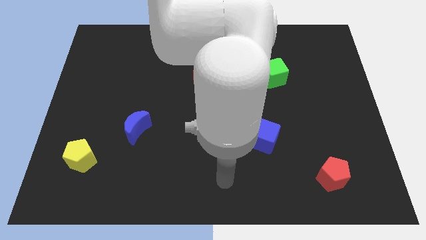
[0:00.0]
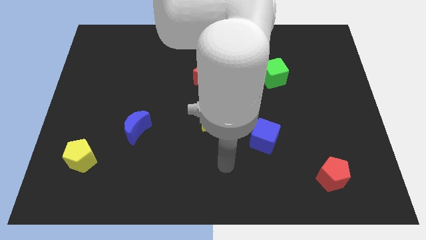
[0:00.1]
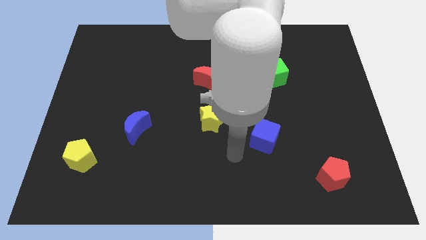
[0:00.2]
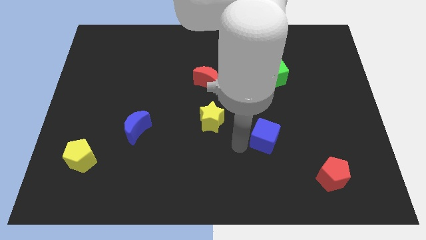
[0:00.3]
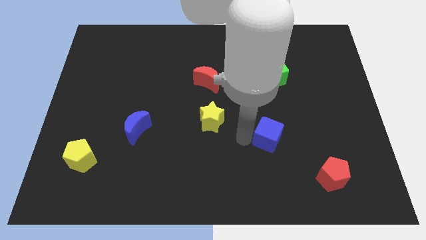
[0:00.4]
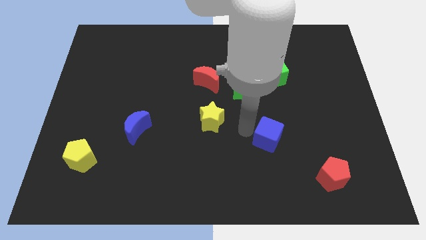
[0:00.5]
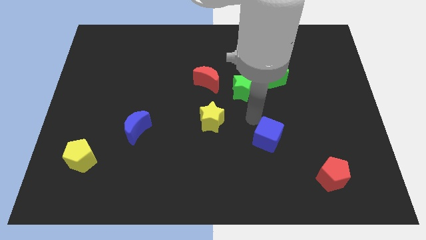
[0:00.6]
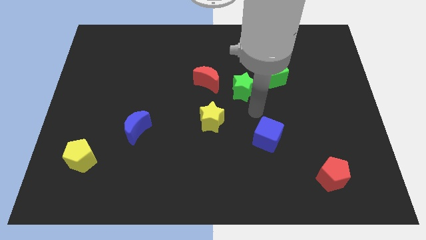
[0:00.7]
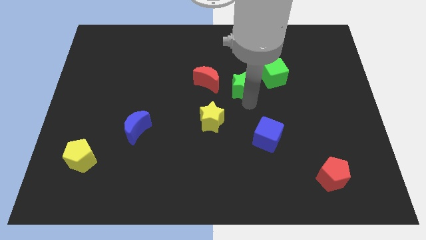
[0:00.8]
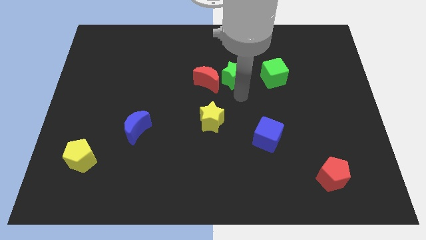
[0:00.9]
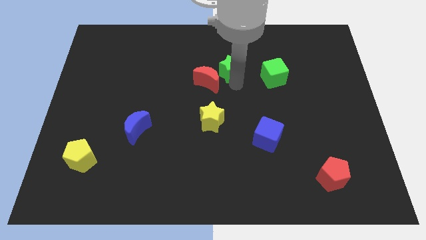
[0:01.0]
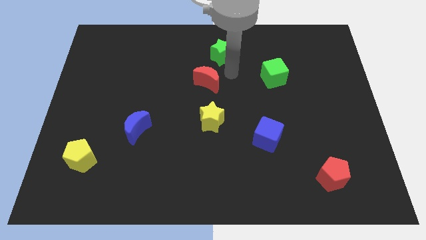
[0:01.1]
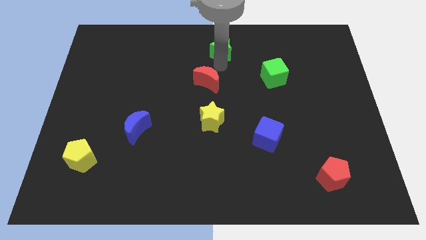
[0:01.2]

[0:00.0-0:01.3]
move the red moon away from the green star

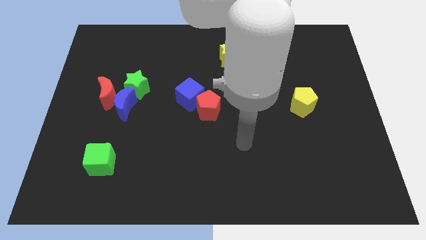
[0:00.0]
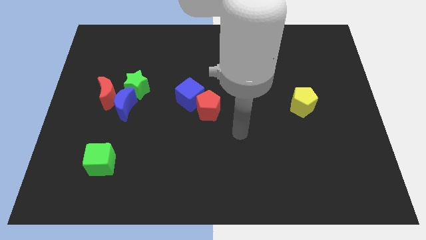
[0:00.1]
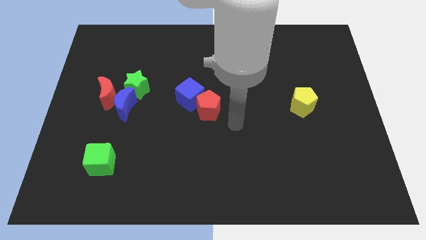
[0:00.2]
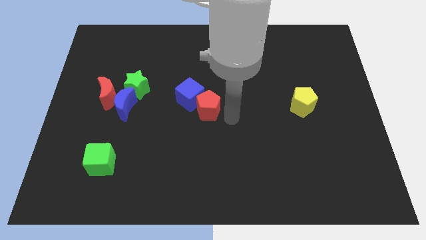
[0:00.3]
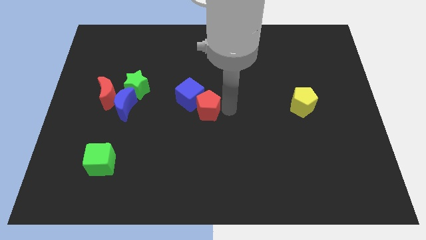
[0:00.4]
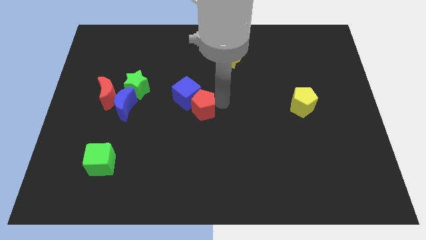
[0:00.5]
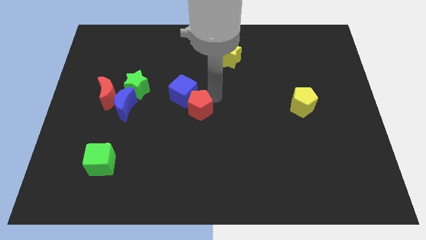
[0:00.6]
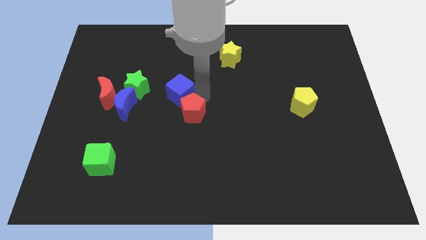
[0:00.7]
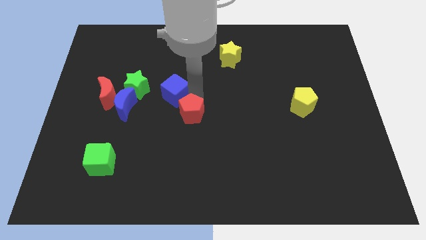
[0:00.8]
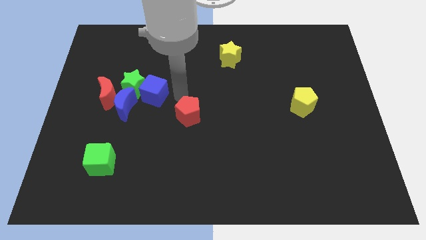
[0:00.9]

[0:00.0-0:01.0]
pull the red pentagon apart from the blue cube

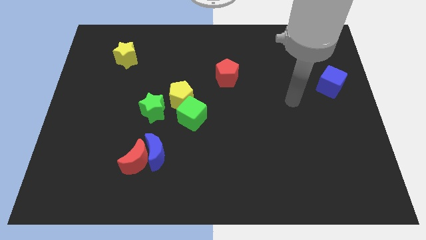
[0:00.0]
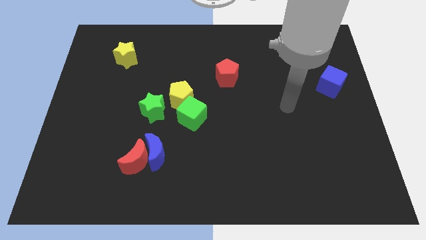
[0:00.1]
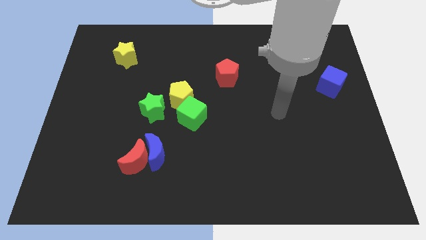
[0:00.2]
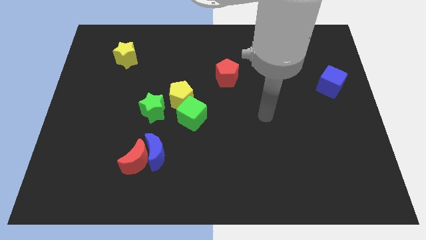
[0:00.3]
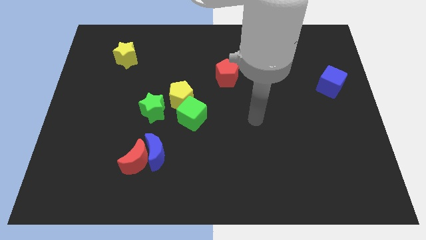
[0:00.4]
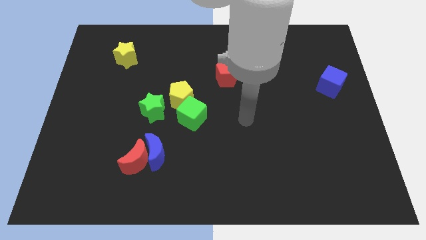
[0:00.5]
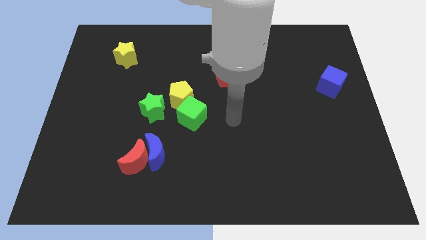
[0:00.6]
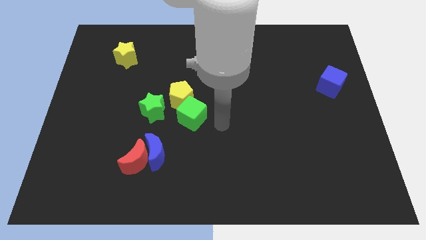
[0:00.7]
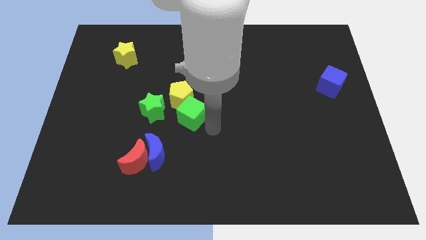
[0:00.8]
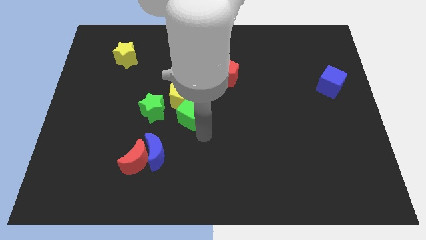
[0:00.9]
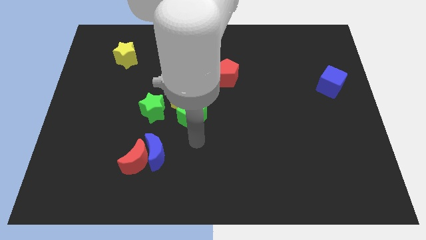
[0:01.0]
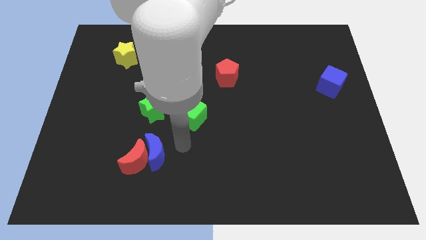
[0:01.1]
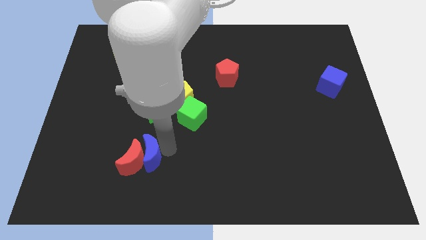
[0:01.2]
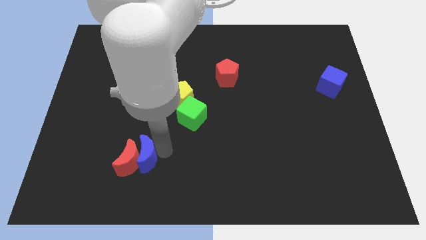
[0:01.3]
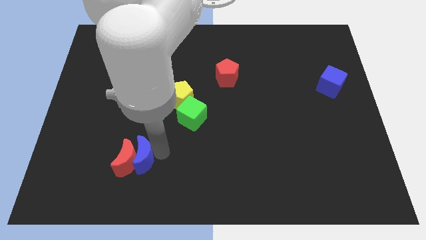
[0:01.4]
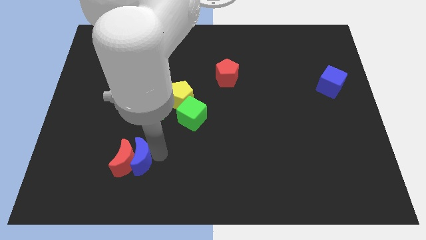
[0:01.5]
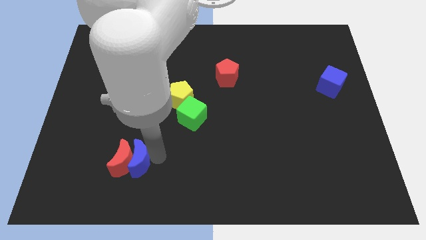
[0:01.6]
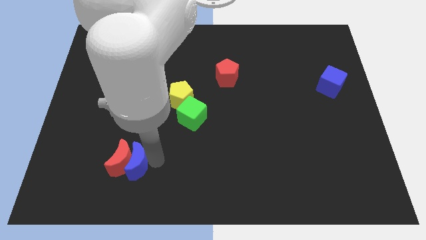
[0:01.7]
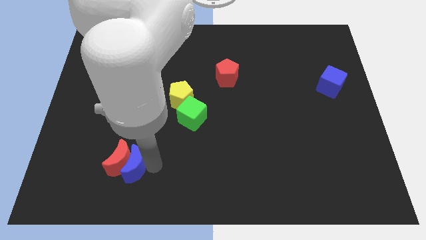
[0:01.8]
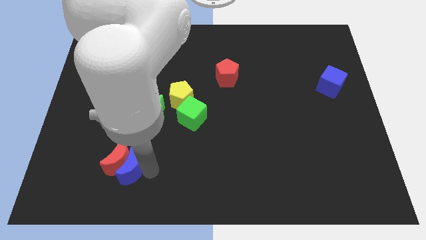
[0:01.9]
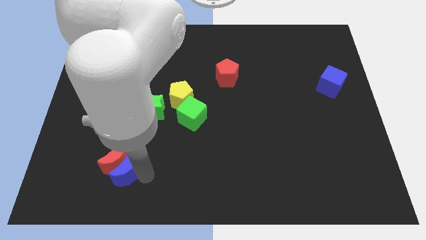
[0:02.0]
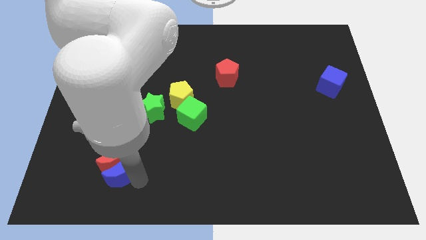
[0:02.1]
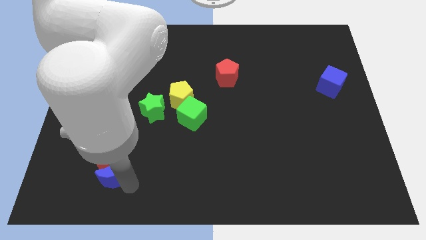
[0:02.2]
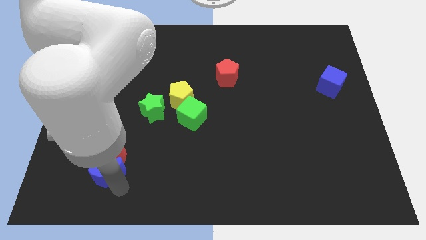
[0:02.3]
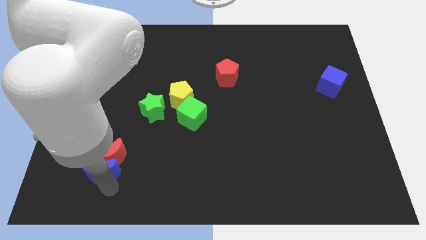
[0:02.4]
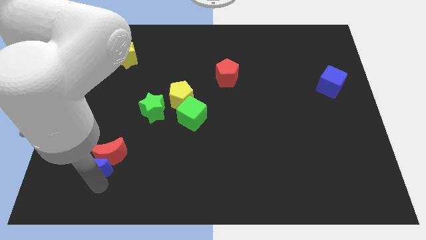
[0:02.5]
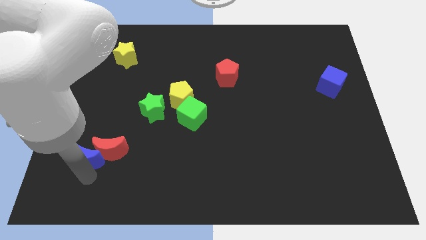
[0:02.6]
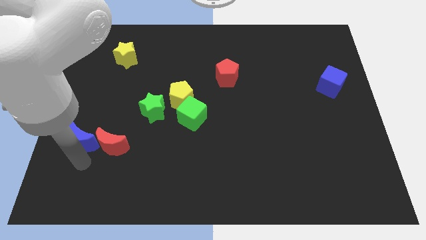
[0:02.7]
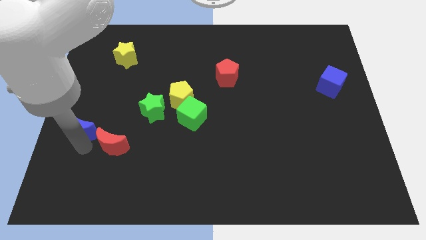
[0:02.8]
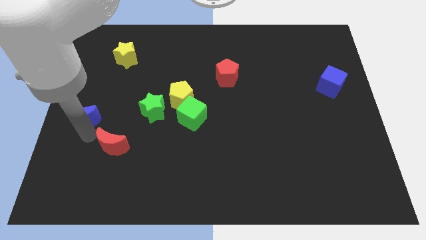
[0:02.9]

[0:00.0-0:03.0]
separate the red moon from the blue moon

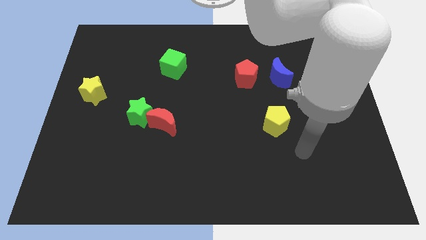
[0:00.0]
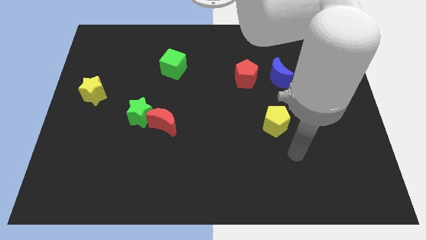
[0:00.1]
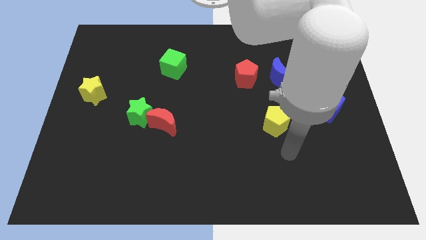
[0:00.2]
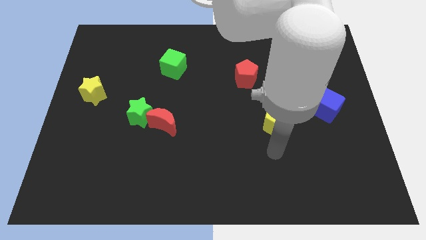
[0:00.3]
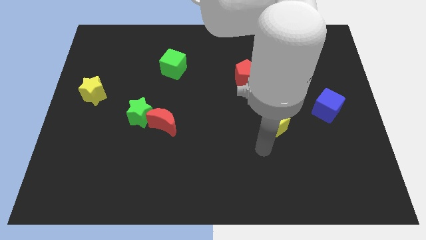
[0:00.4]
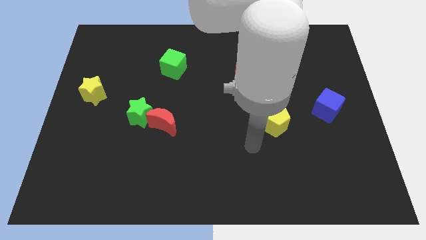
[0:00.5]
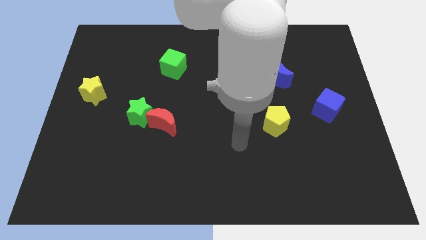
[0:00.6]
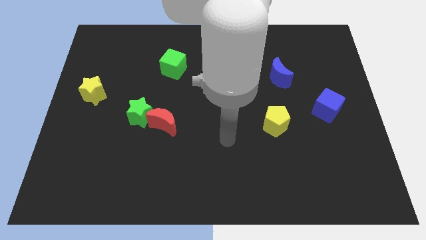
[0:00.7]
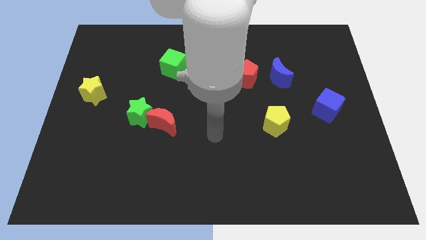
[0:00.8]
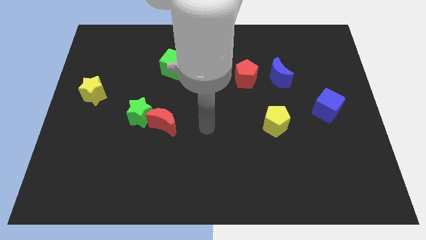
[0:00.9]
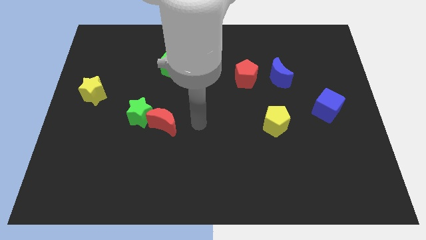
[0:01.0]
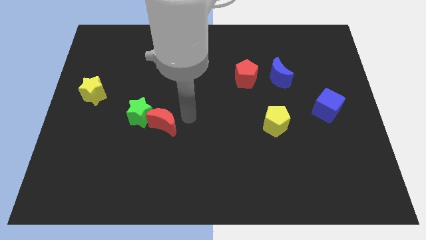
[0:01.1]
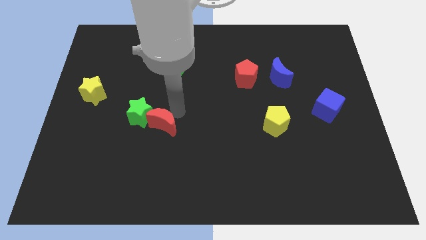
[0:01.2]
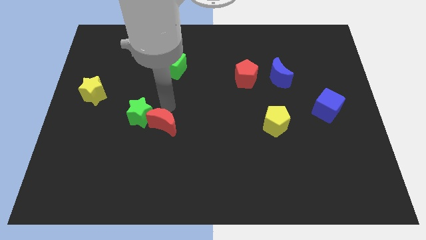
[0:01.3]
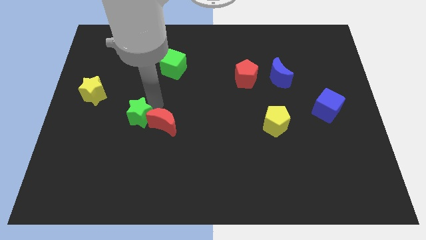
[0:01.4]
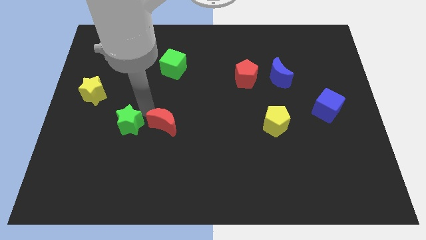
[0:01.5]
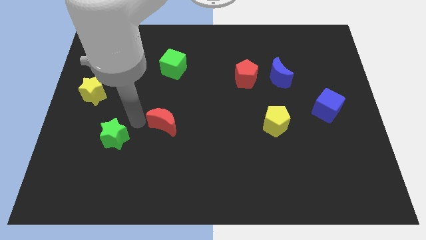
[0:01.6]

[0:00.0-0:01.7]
separate the red moon from the green star

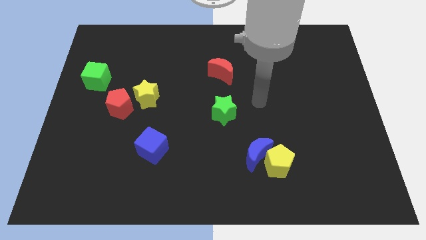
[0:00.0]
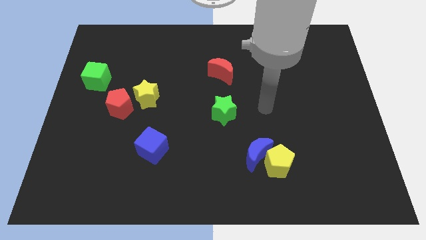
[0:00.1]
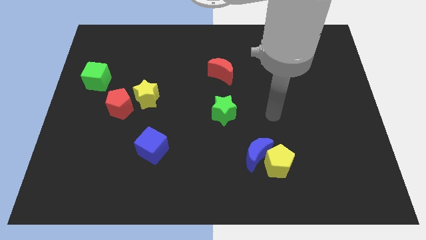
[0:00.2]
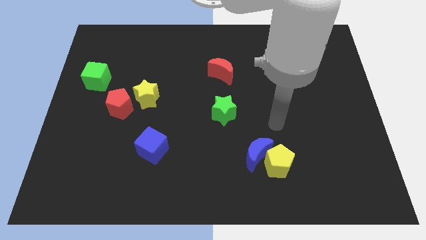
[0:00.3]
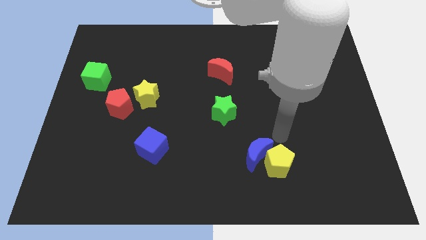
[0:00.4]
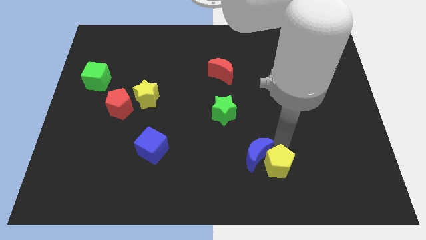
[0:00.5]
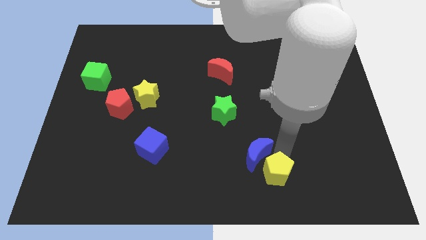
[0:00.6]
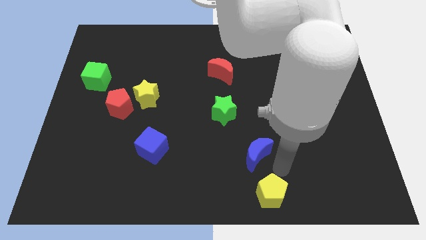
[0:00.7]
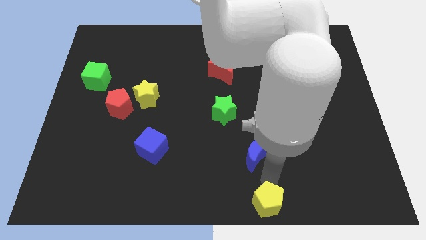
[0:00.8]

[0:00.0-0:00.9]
pull the blue moon apart from the yellow pentagon

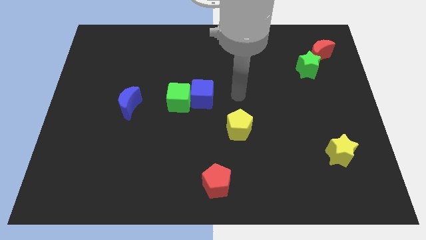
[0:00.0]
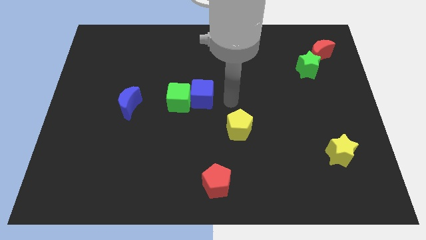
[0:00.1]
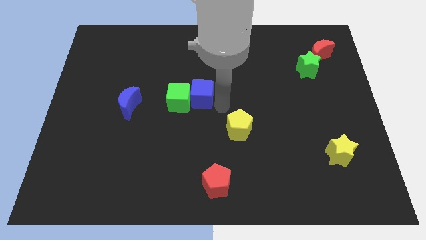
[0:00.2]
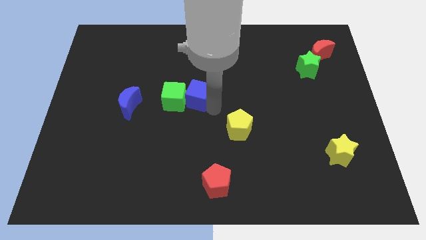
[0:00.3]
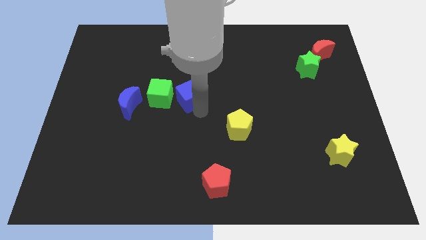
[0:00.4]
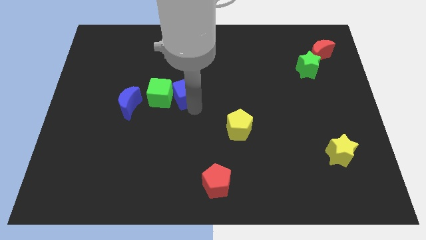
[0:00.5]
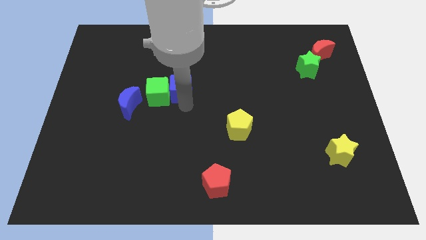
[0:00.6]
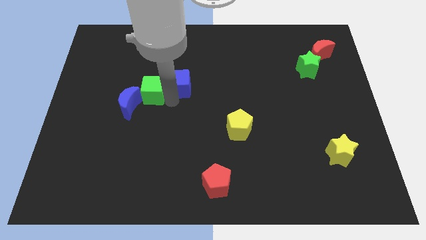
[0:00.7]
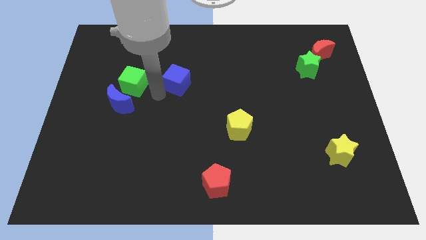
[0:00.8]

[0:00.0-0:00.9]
pull the blue cube apart from the green cube

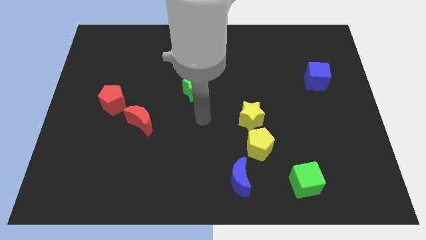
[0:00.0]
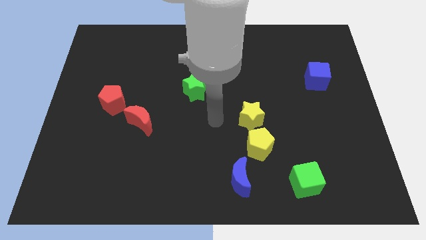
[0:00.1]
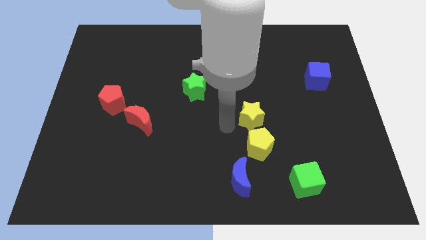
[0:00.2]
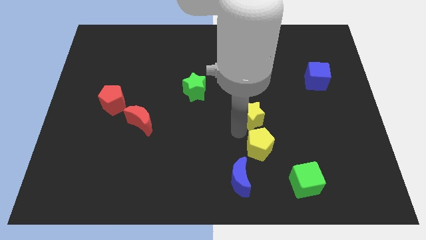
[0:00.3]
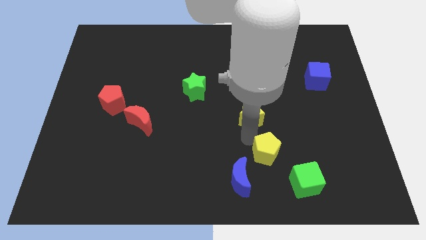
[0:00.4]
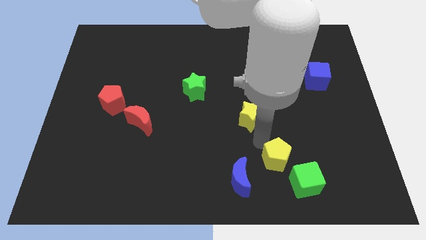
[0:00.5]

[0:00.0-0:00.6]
pull the yellow star apart from the yellow pentagon
